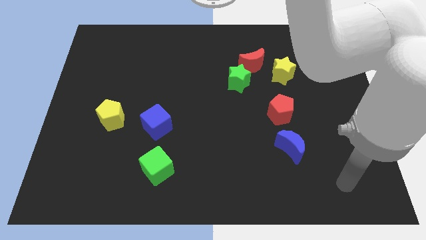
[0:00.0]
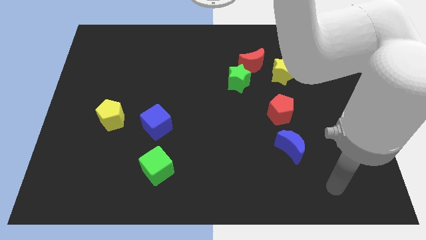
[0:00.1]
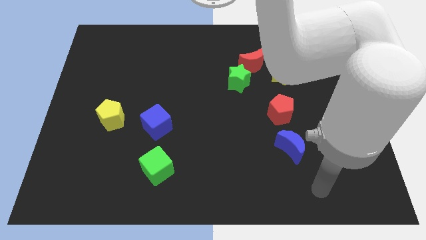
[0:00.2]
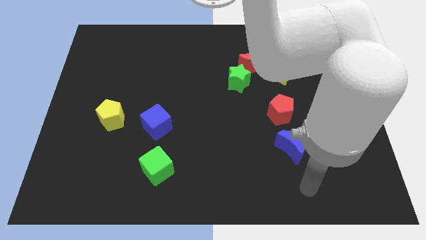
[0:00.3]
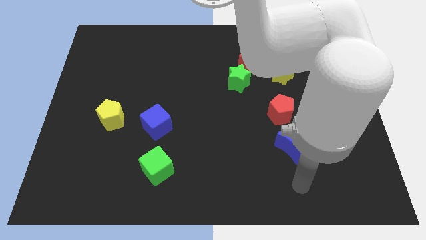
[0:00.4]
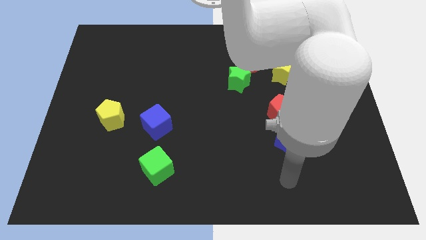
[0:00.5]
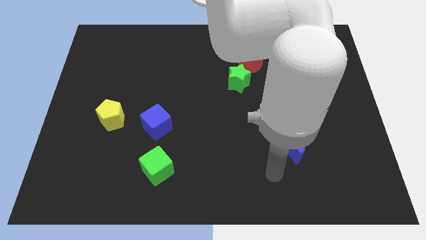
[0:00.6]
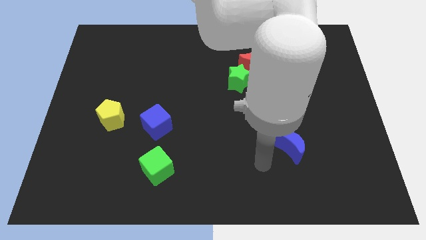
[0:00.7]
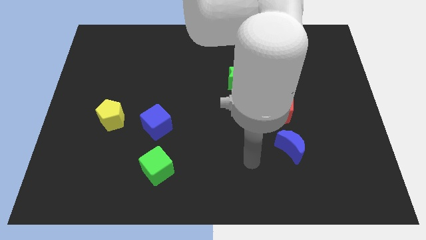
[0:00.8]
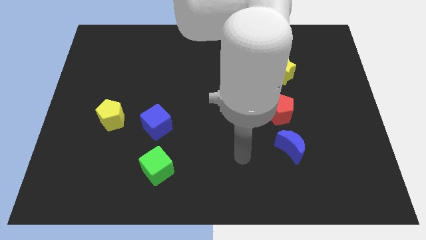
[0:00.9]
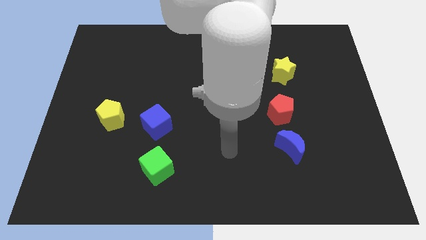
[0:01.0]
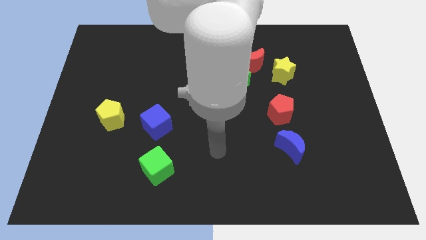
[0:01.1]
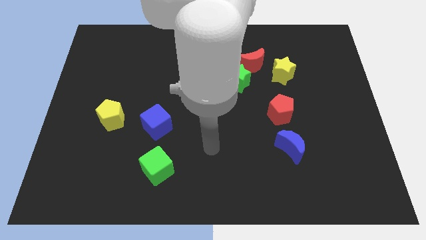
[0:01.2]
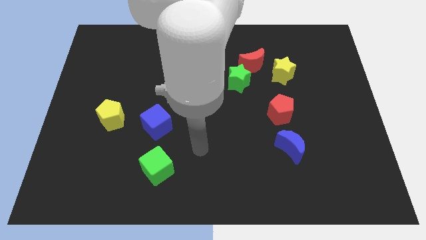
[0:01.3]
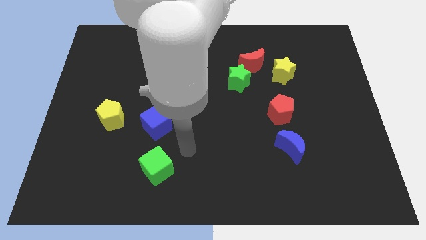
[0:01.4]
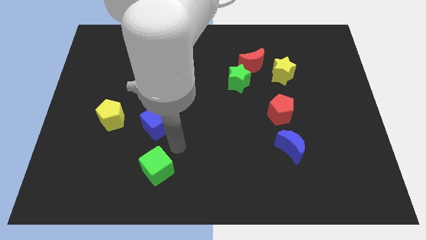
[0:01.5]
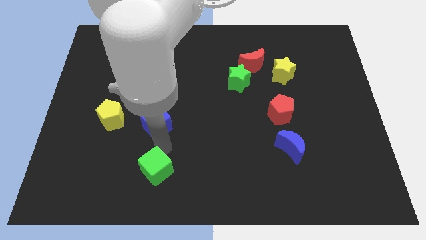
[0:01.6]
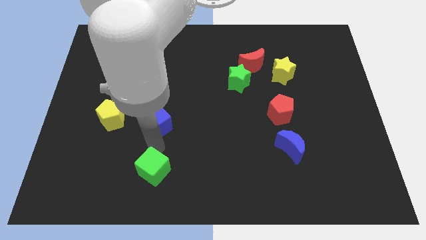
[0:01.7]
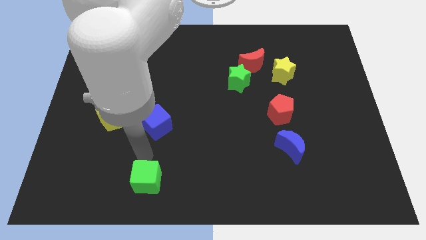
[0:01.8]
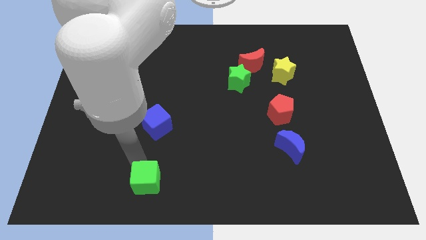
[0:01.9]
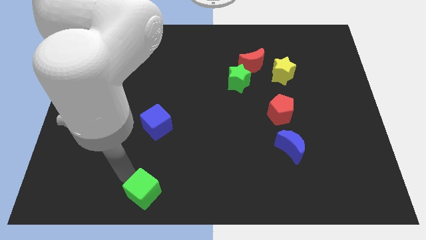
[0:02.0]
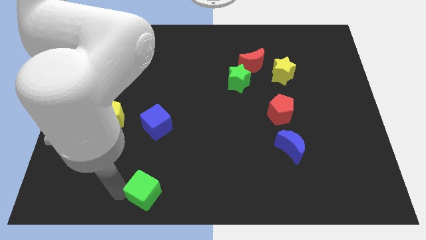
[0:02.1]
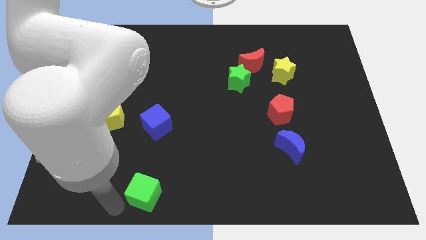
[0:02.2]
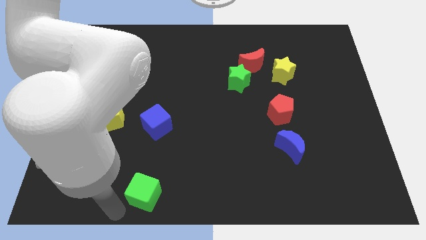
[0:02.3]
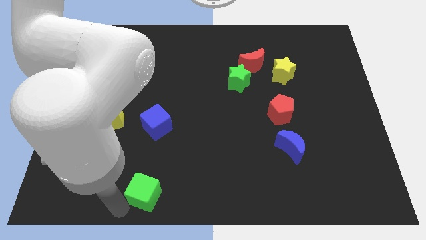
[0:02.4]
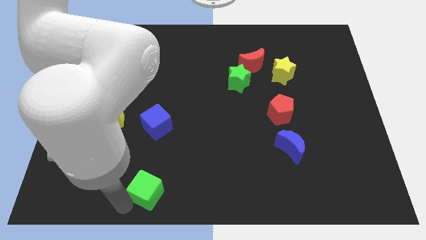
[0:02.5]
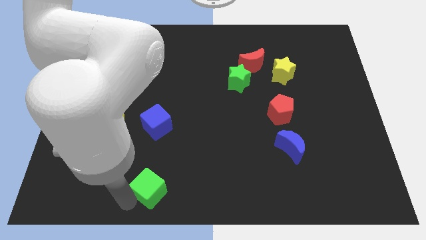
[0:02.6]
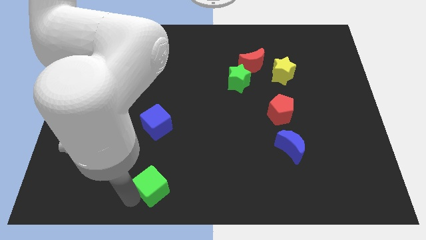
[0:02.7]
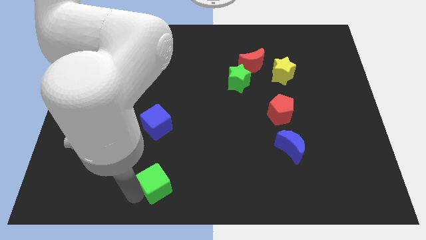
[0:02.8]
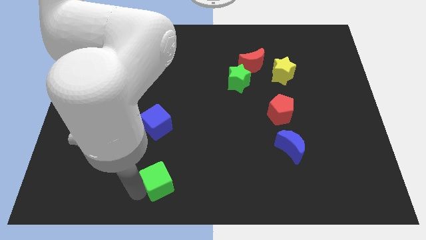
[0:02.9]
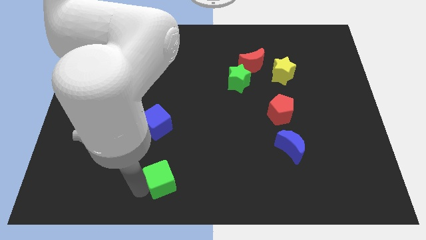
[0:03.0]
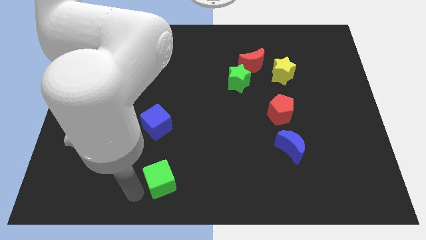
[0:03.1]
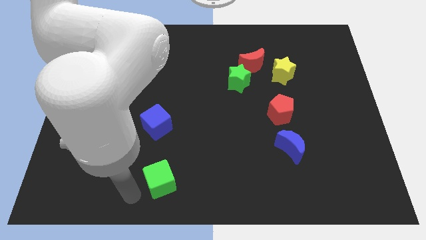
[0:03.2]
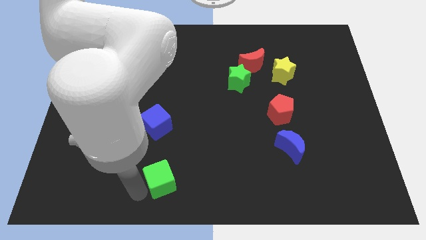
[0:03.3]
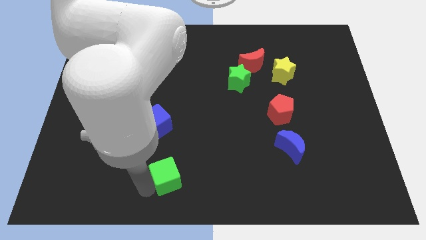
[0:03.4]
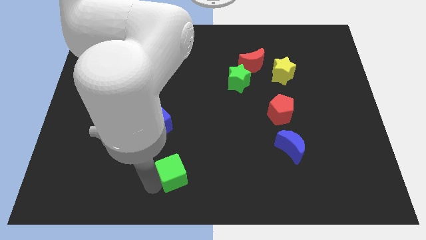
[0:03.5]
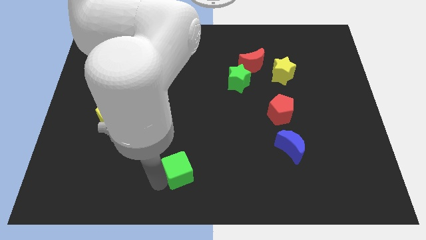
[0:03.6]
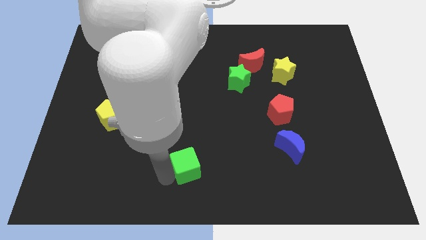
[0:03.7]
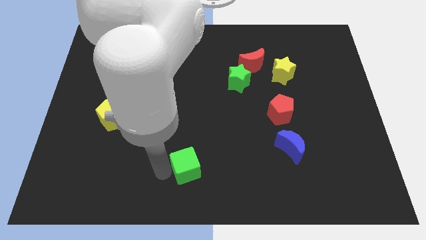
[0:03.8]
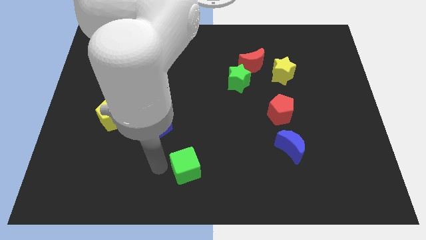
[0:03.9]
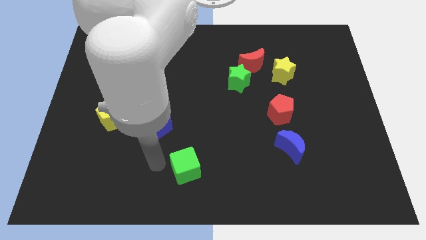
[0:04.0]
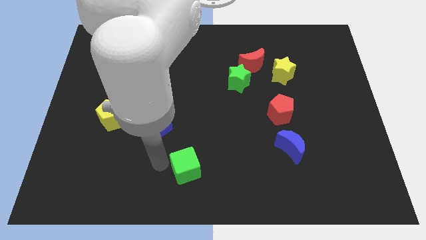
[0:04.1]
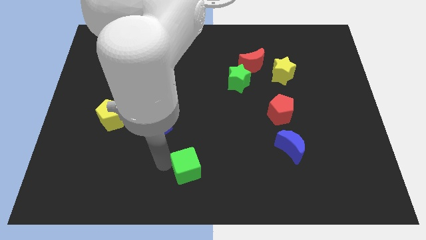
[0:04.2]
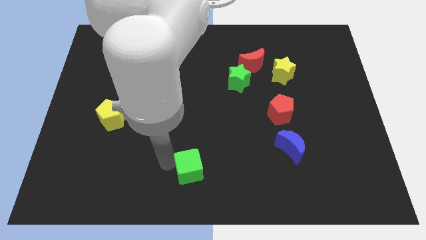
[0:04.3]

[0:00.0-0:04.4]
push the green cube right a little

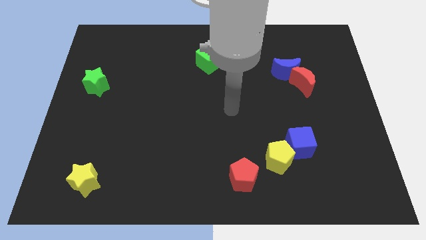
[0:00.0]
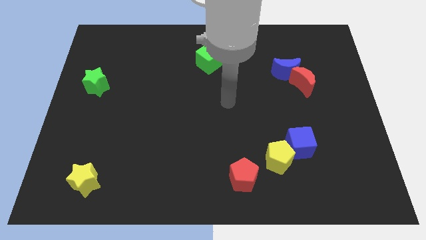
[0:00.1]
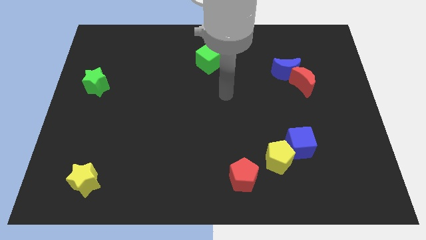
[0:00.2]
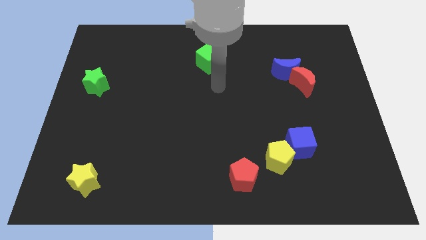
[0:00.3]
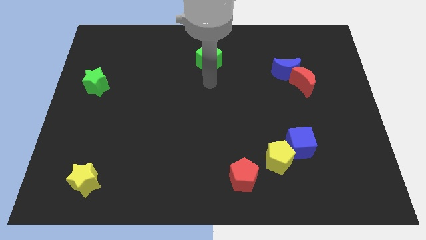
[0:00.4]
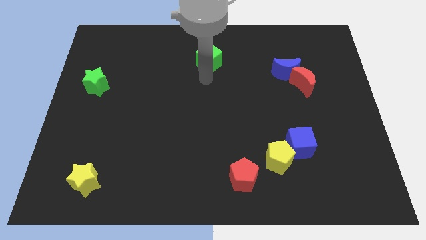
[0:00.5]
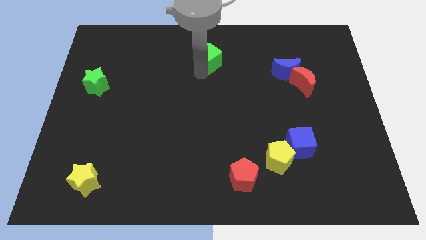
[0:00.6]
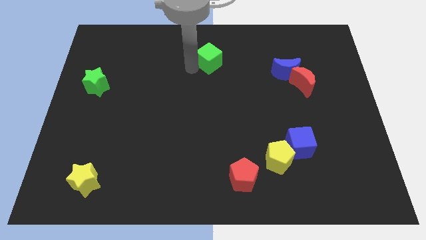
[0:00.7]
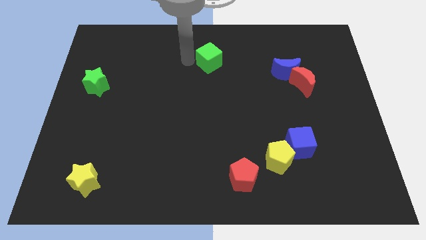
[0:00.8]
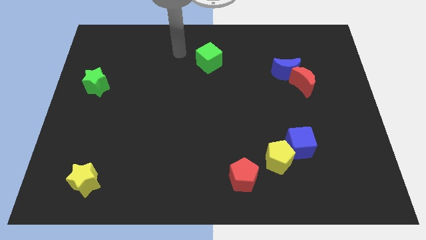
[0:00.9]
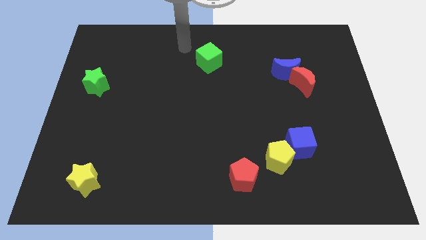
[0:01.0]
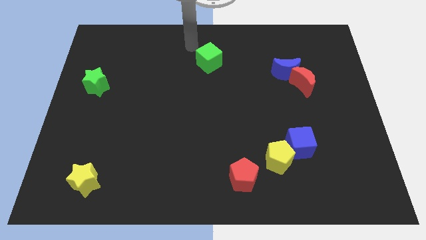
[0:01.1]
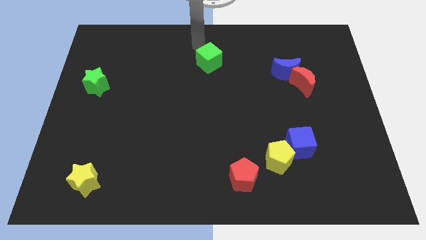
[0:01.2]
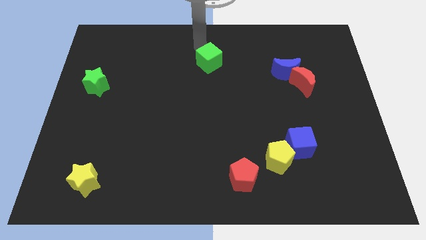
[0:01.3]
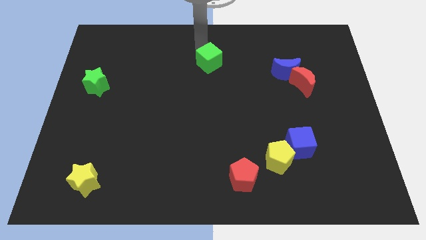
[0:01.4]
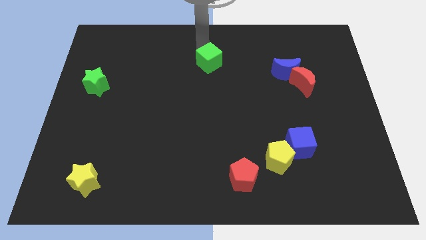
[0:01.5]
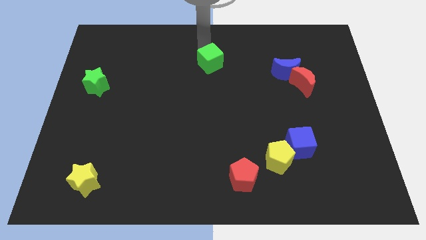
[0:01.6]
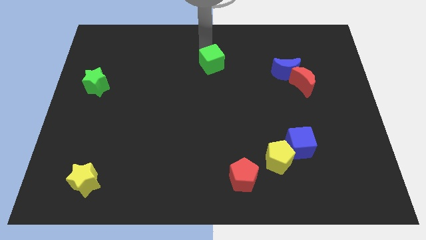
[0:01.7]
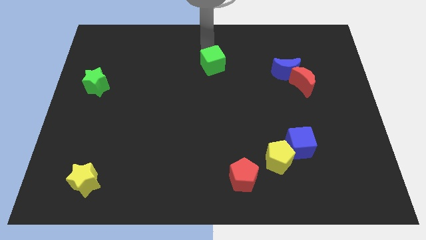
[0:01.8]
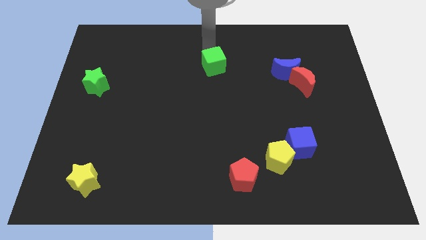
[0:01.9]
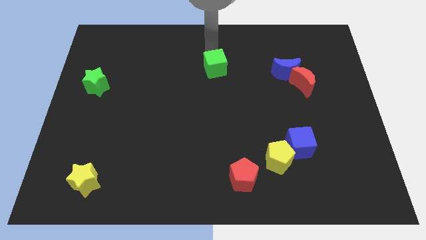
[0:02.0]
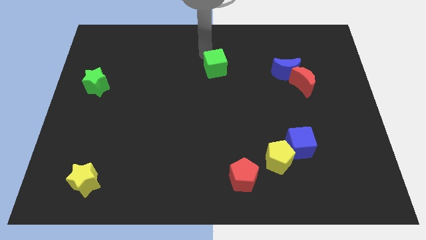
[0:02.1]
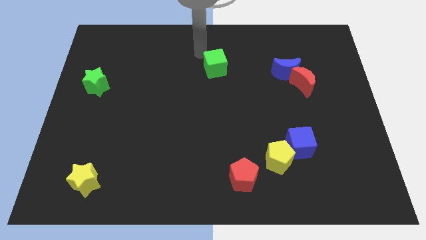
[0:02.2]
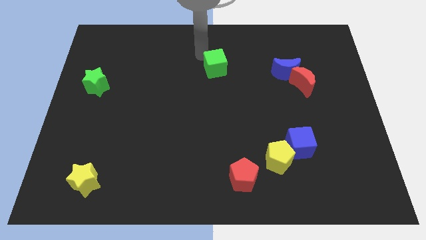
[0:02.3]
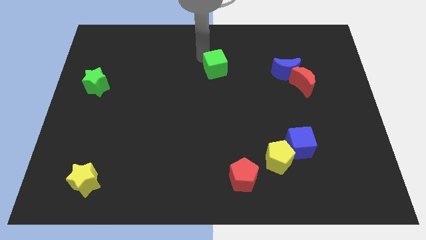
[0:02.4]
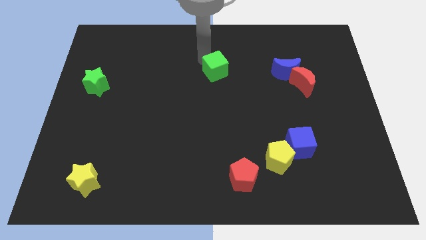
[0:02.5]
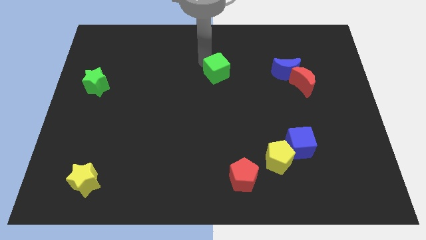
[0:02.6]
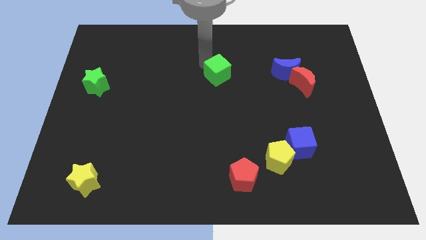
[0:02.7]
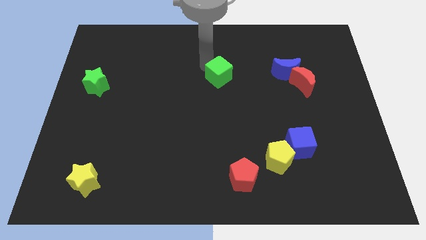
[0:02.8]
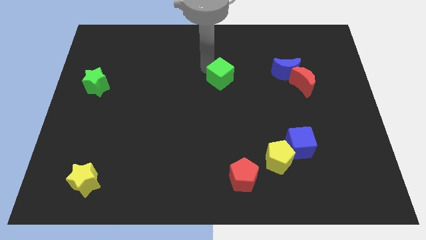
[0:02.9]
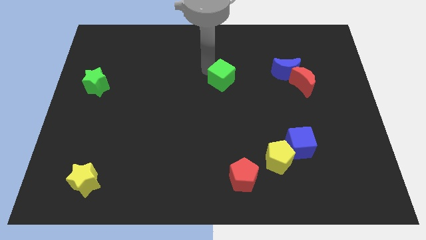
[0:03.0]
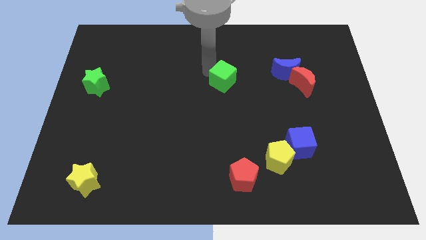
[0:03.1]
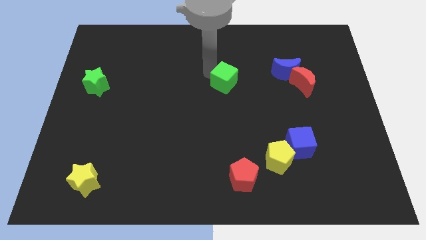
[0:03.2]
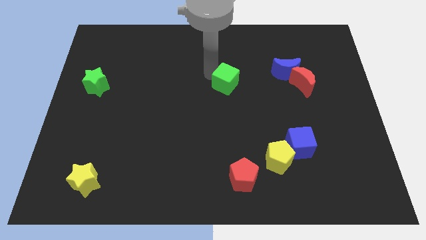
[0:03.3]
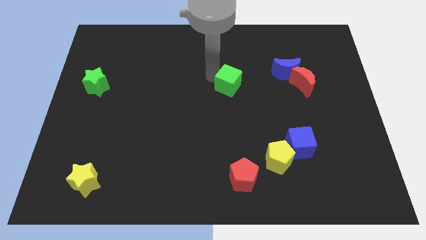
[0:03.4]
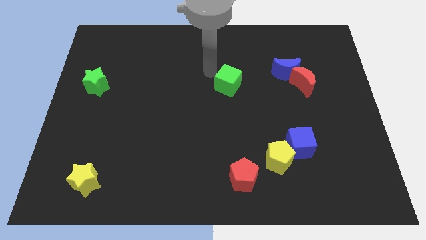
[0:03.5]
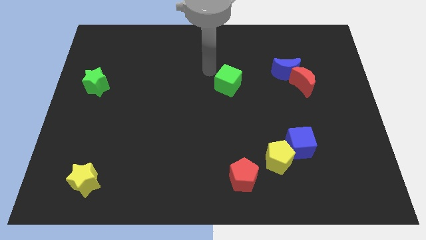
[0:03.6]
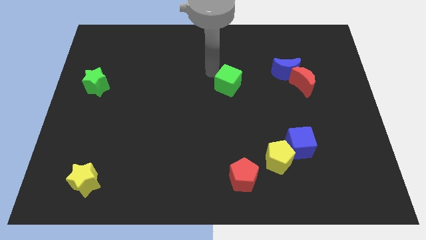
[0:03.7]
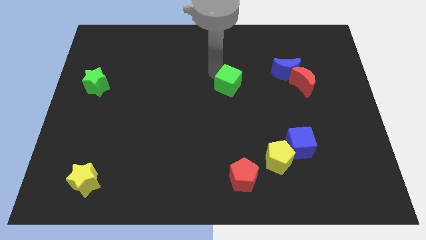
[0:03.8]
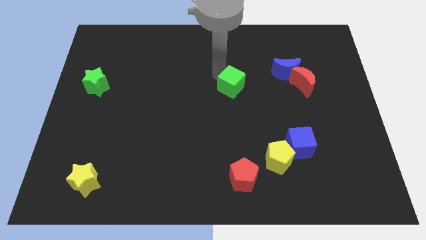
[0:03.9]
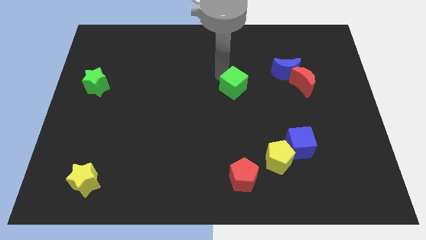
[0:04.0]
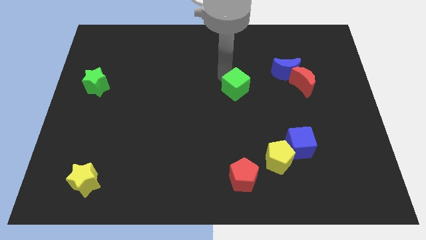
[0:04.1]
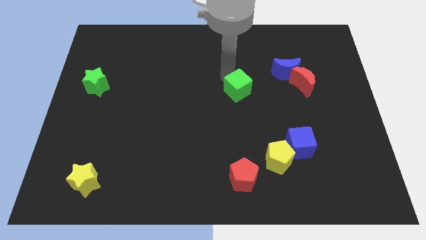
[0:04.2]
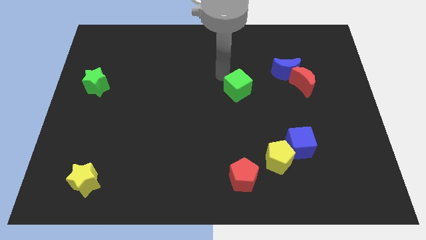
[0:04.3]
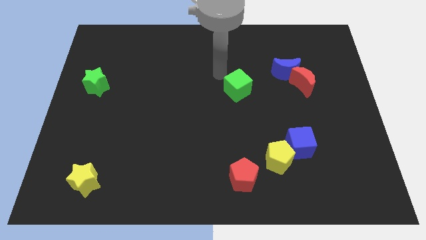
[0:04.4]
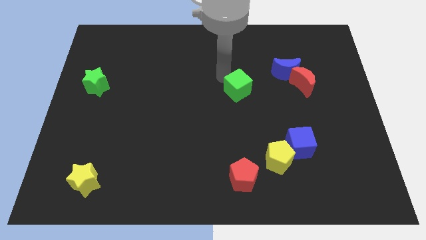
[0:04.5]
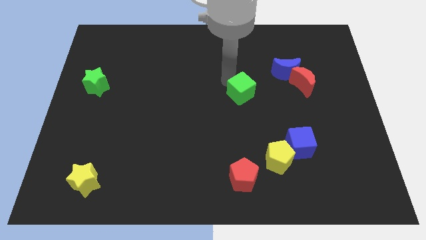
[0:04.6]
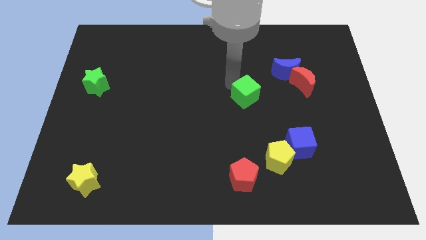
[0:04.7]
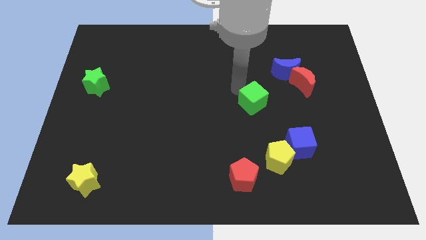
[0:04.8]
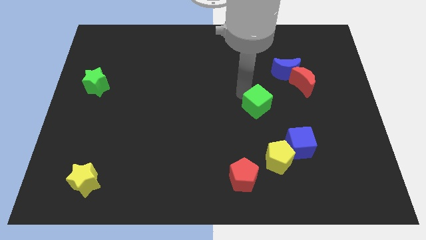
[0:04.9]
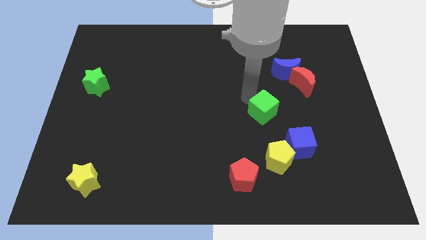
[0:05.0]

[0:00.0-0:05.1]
move the green cube down and to the right diagonally
